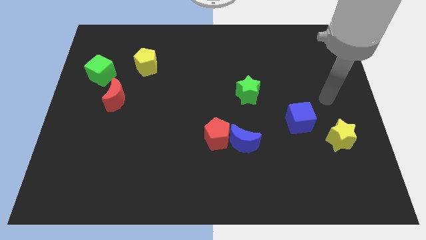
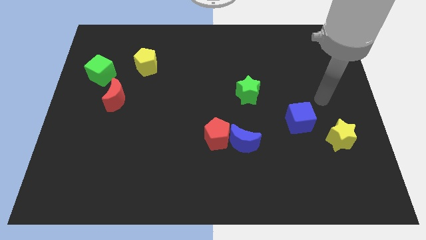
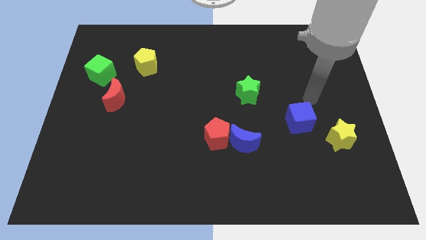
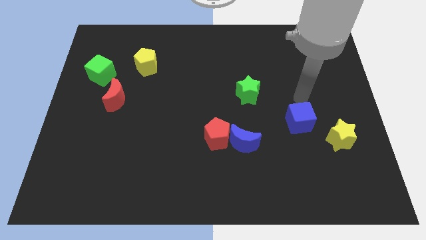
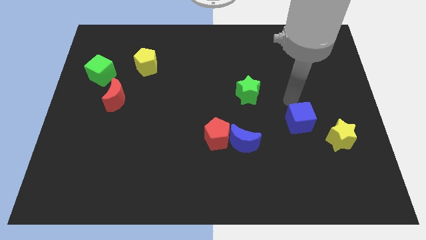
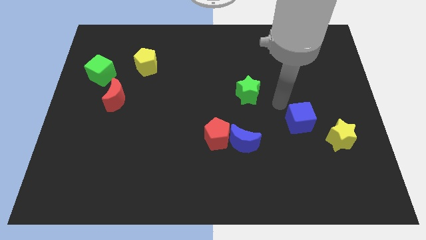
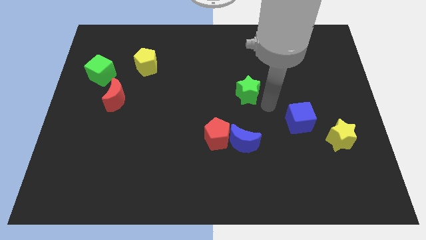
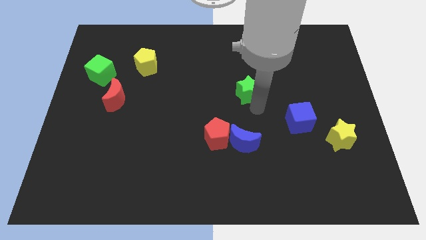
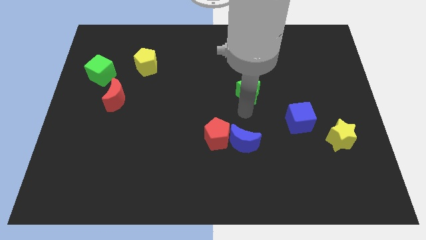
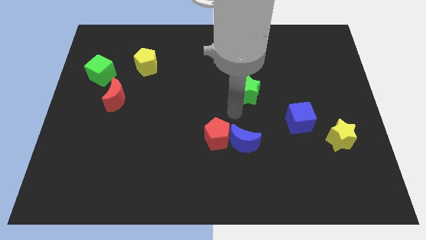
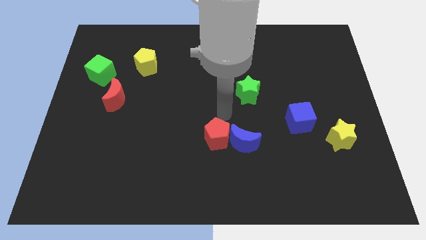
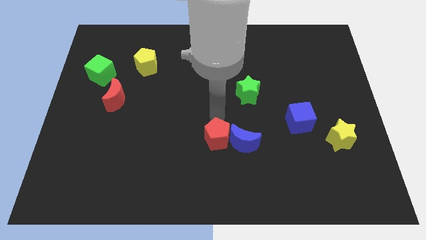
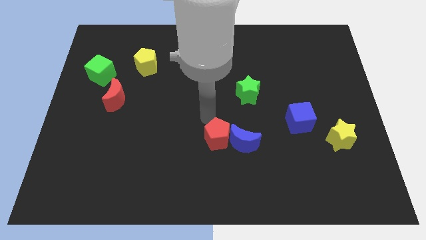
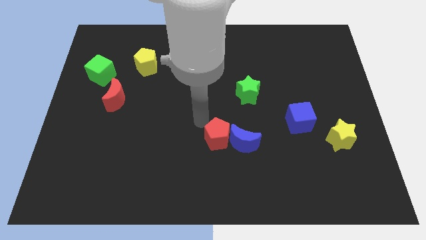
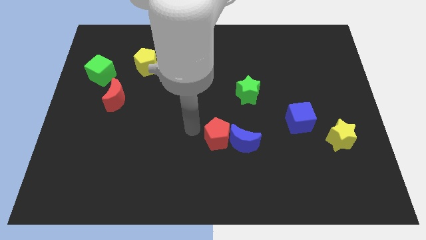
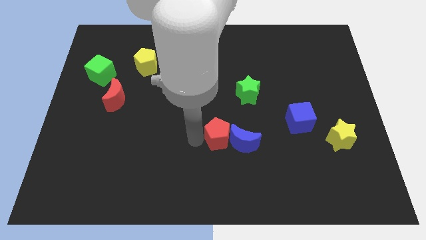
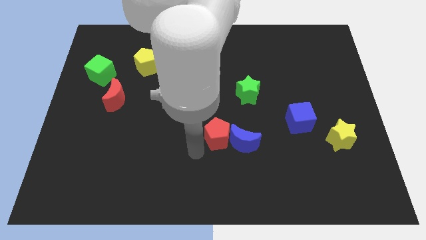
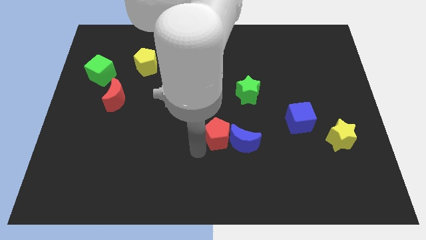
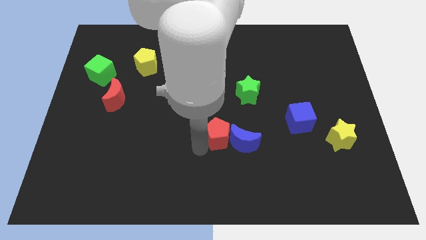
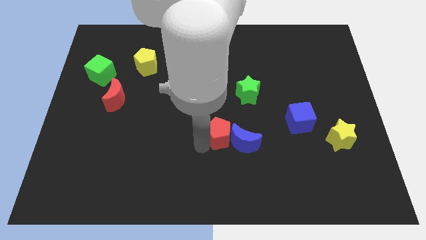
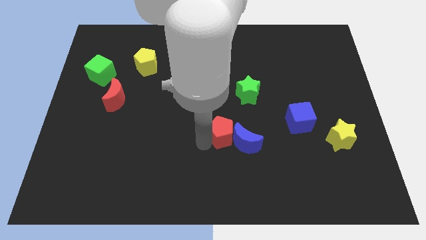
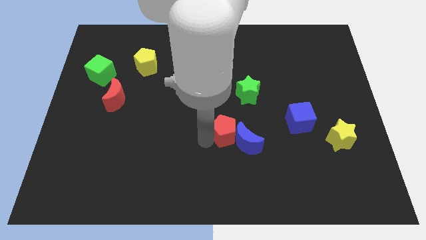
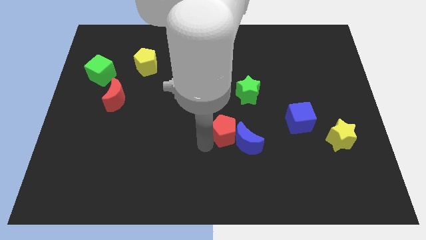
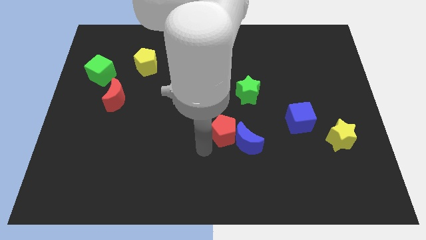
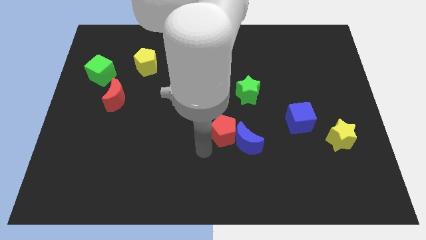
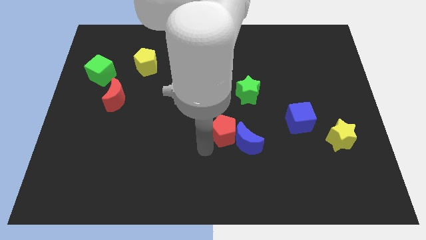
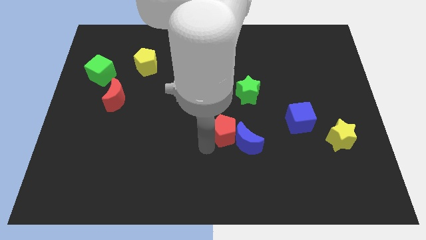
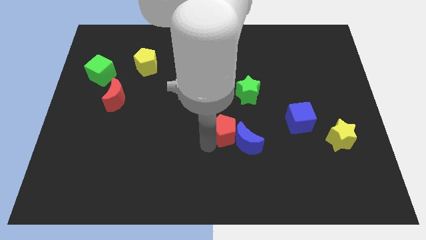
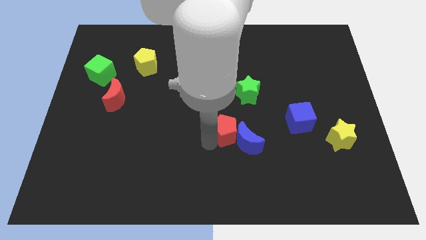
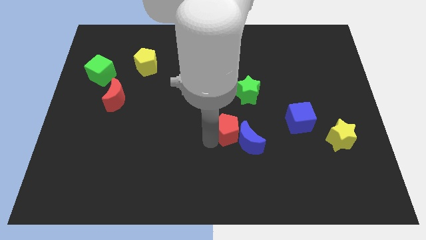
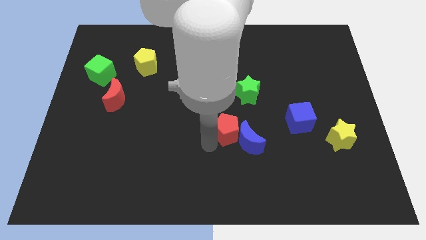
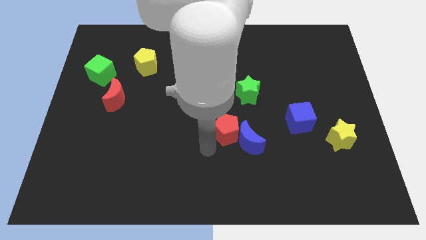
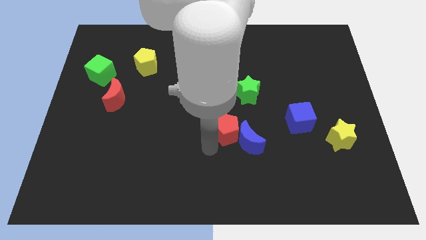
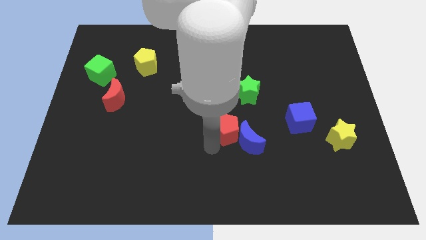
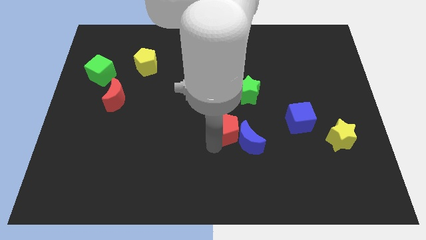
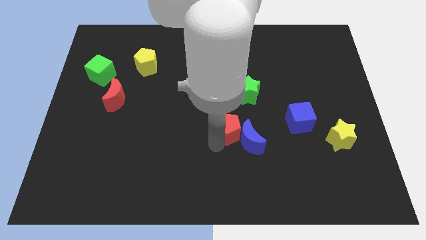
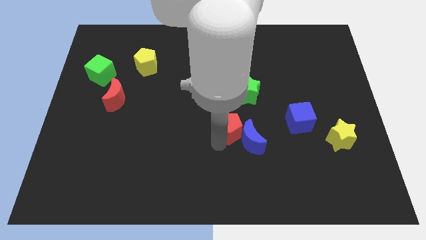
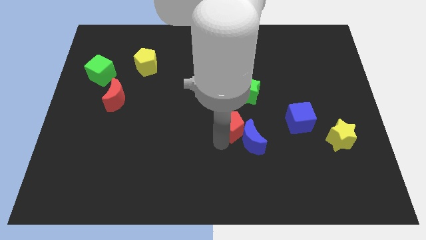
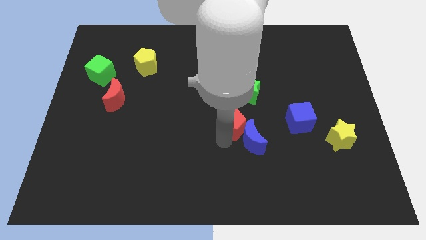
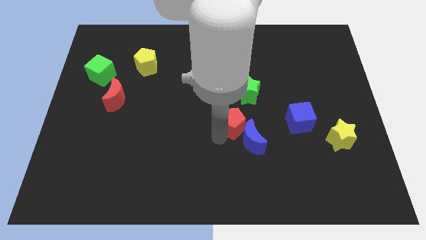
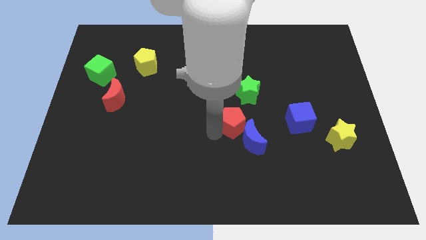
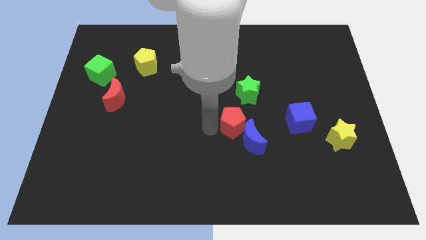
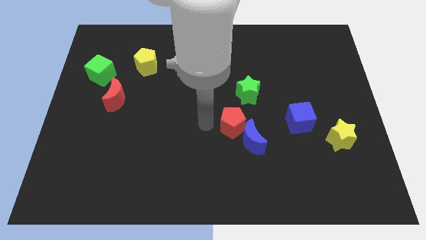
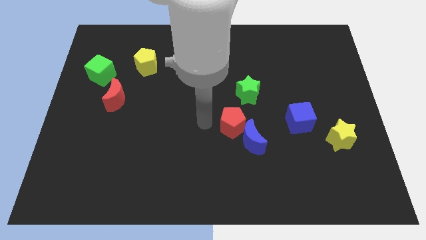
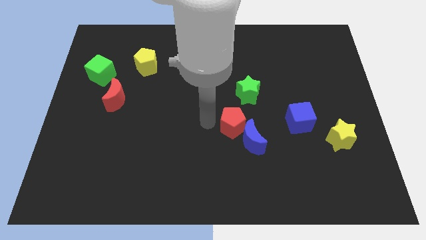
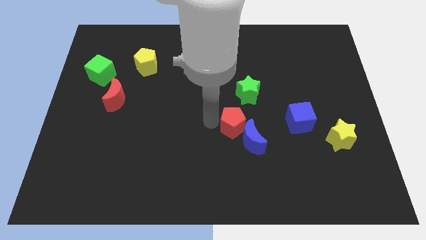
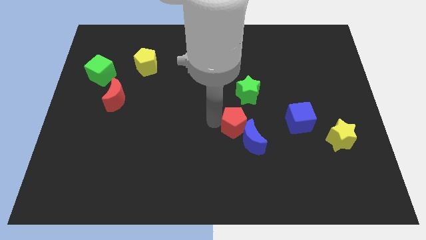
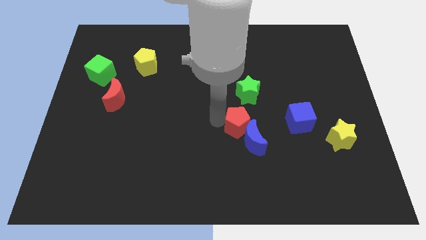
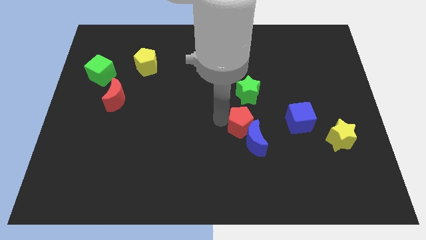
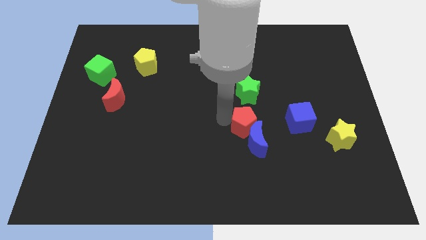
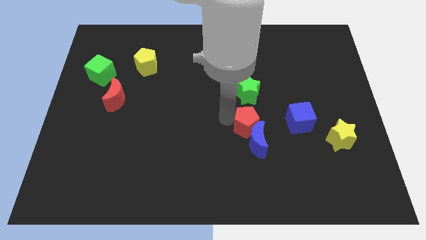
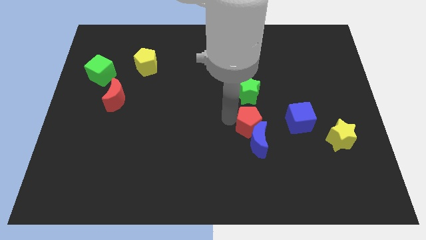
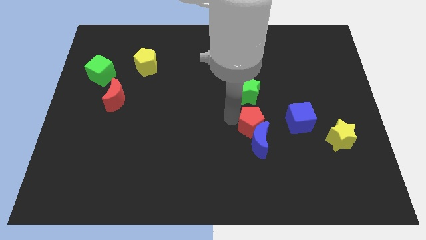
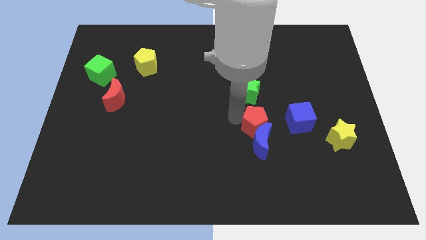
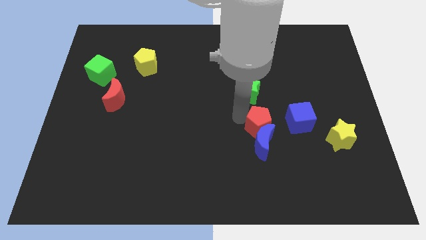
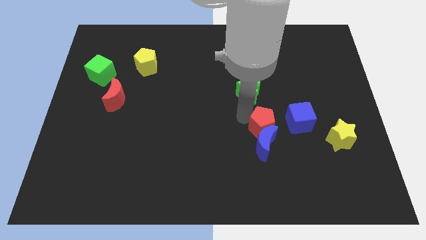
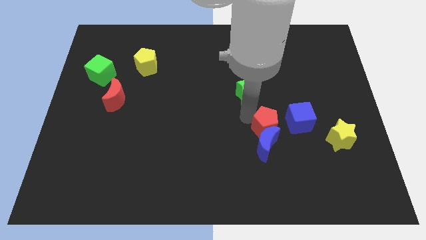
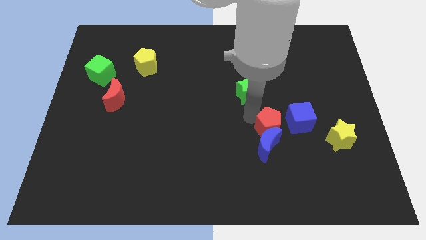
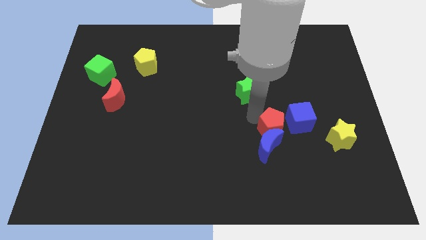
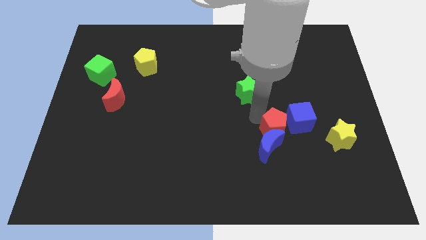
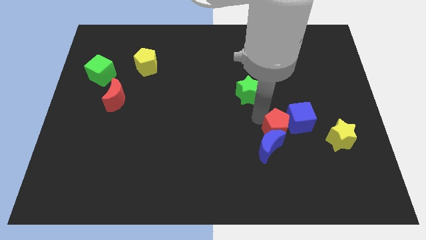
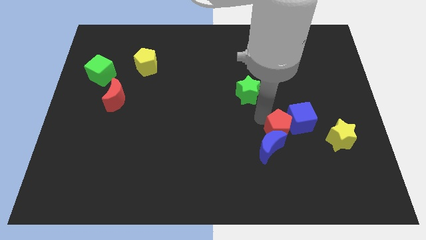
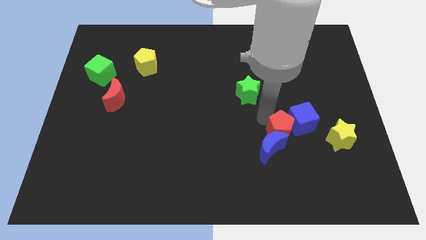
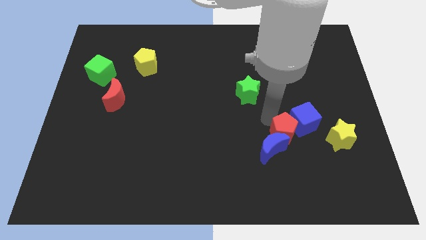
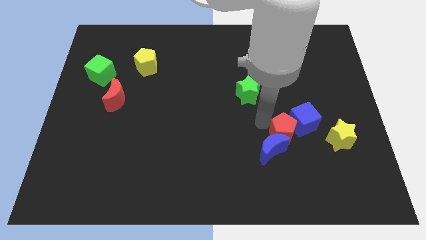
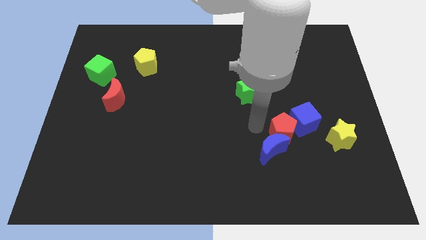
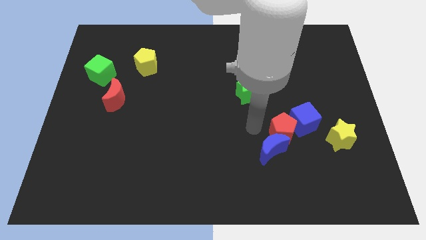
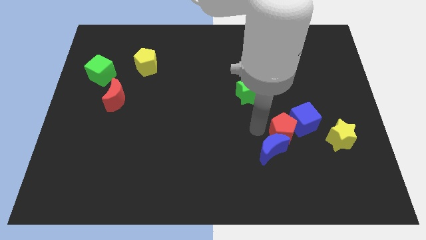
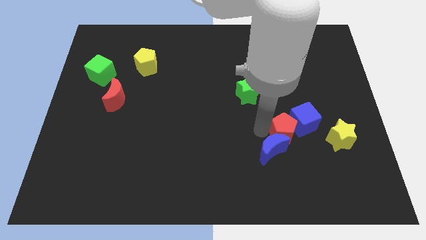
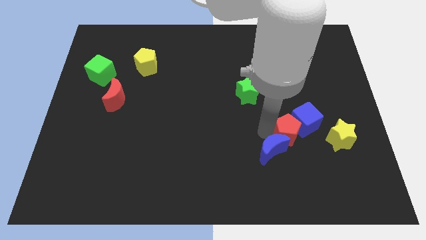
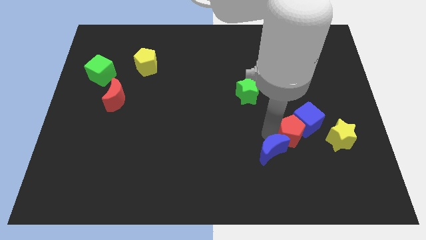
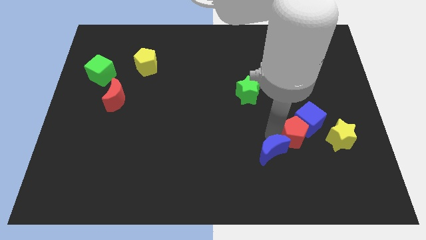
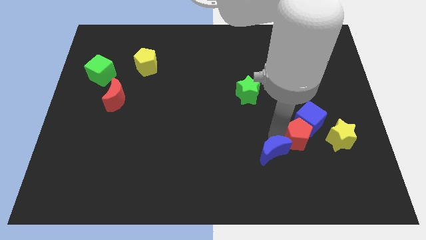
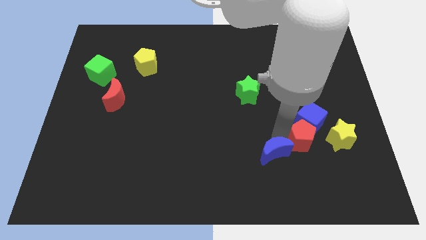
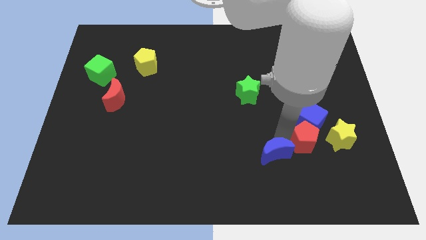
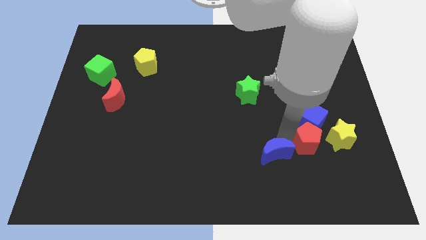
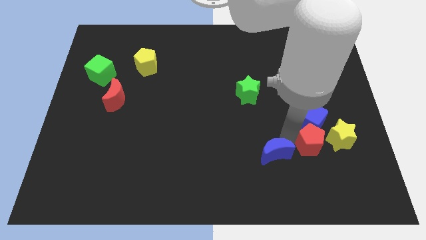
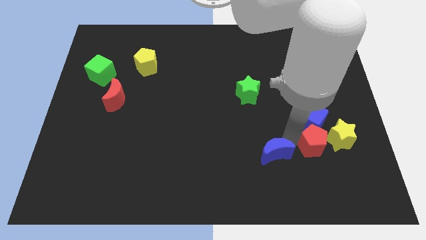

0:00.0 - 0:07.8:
move the red pentagon towards the yellow star

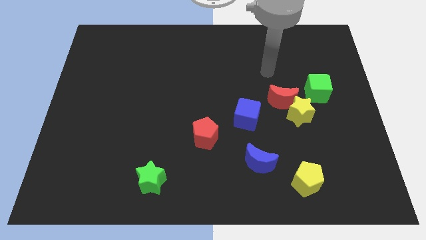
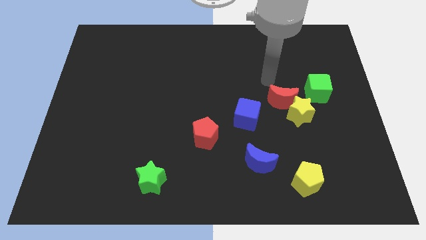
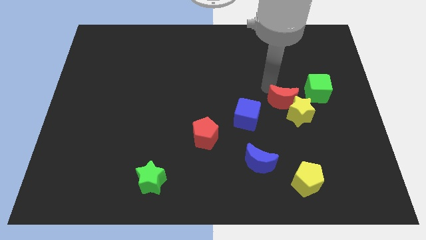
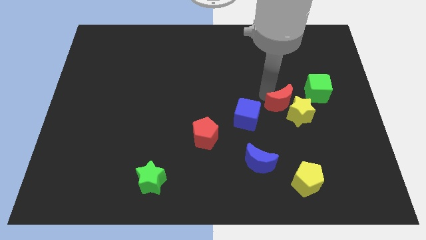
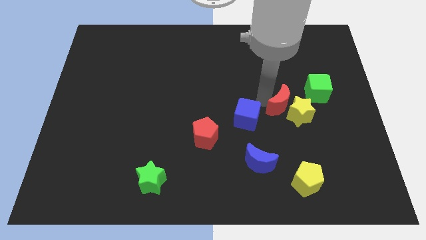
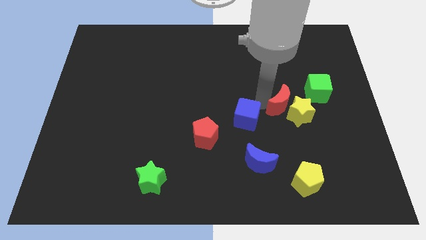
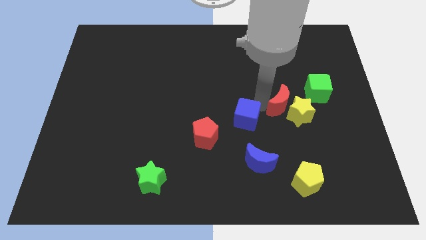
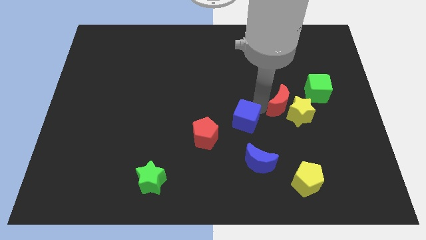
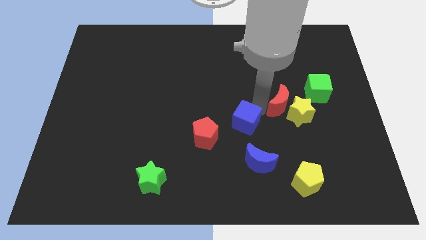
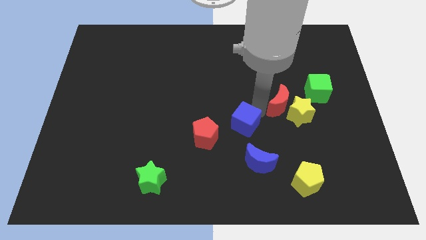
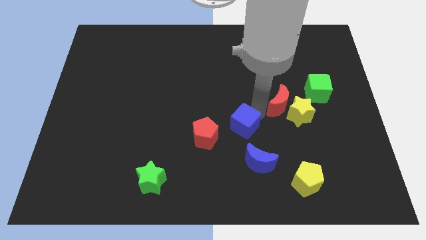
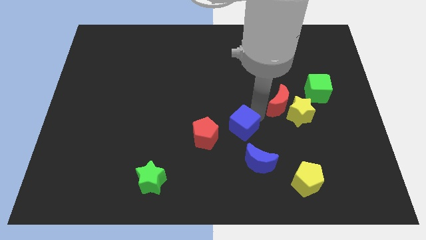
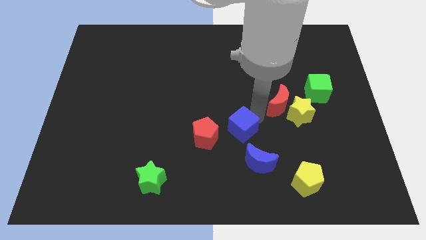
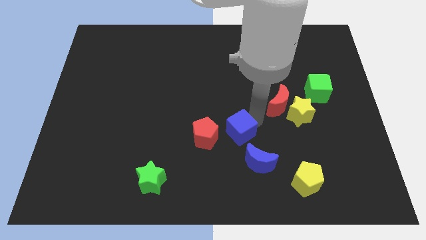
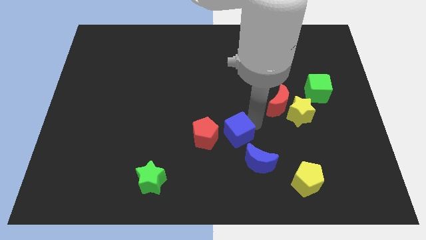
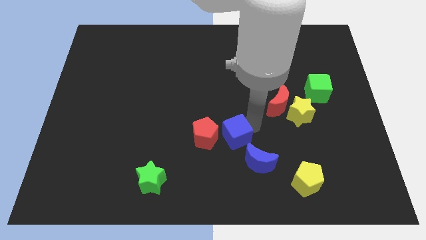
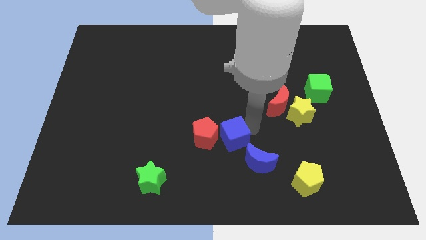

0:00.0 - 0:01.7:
move the blue cube to the red pentagon
